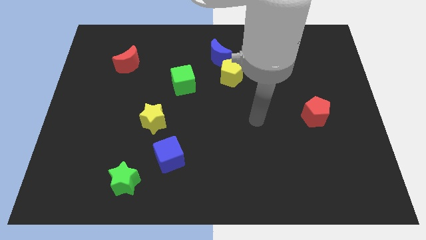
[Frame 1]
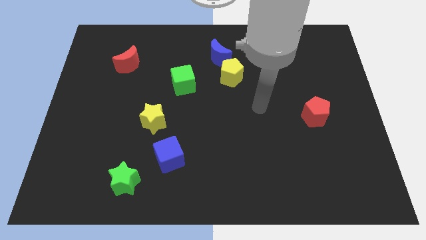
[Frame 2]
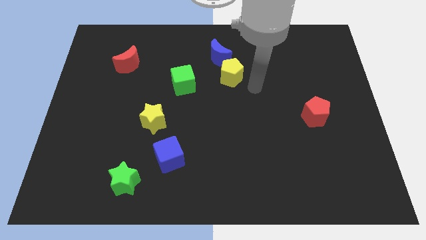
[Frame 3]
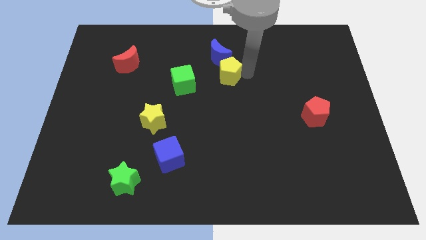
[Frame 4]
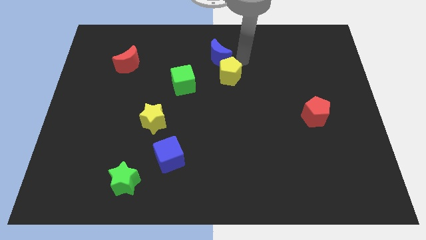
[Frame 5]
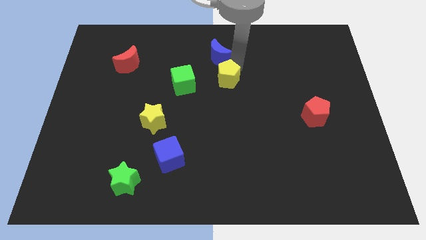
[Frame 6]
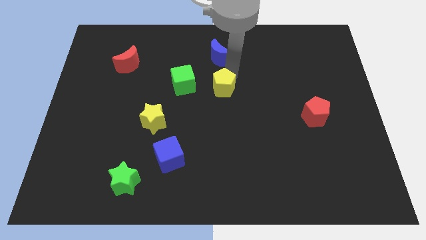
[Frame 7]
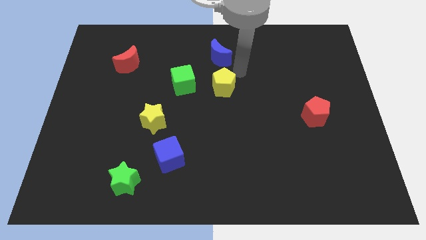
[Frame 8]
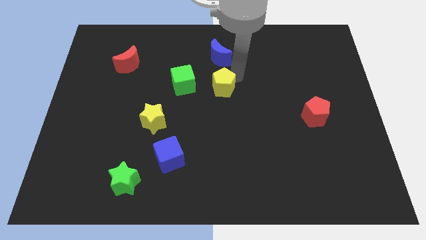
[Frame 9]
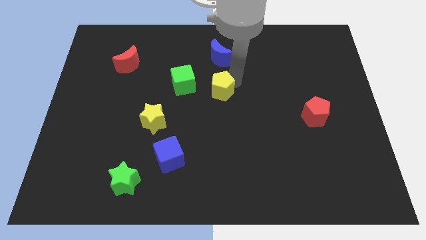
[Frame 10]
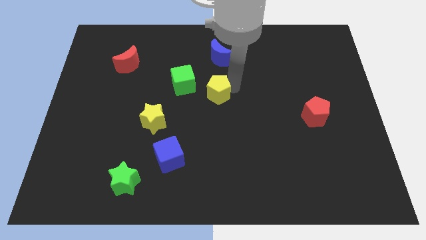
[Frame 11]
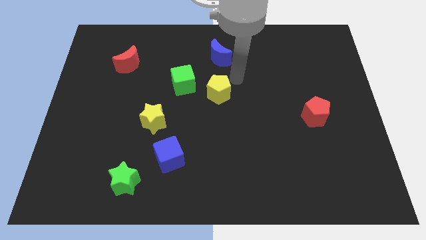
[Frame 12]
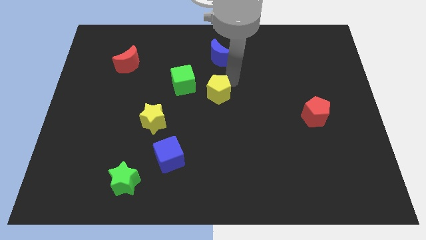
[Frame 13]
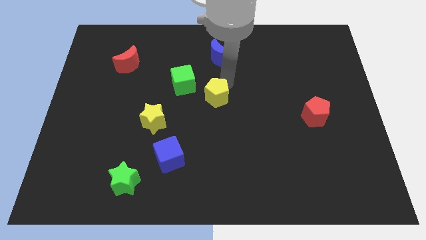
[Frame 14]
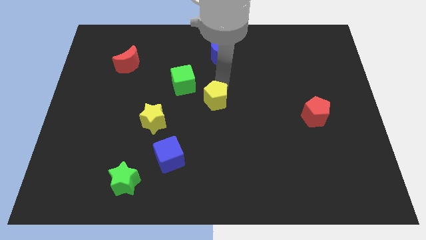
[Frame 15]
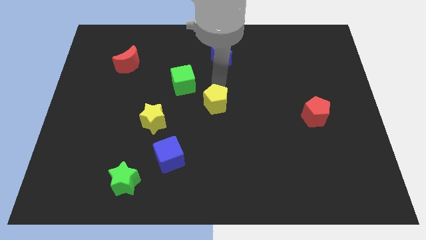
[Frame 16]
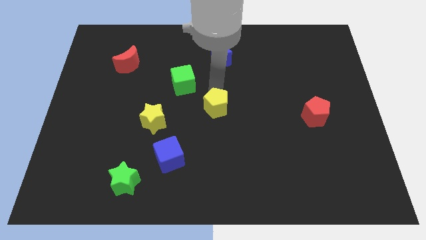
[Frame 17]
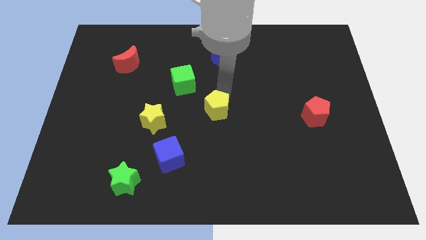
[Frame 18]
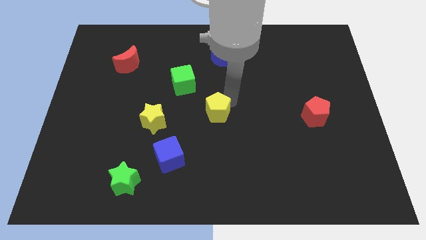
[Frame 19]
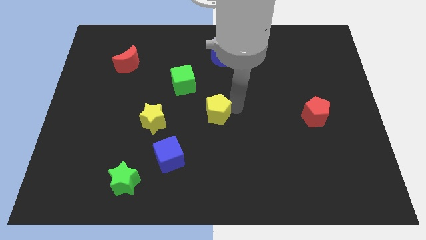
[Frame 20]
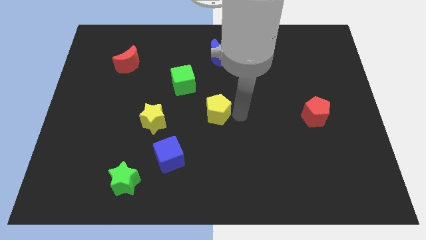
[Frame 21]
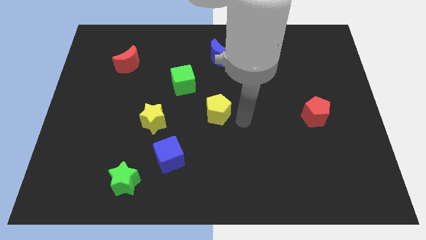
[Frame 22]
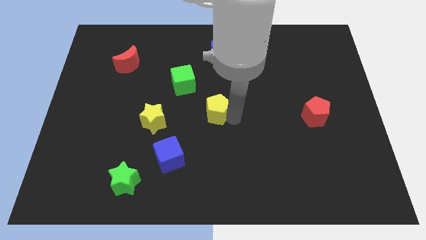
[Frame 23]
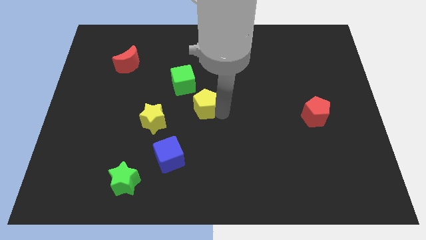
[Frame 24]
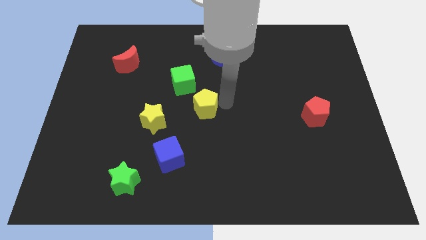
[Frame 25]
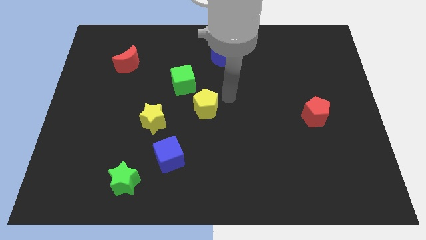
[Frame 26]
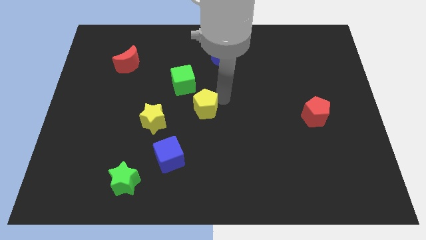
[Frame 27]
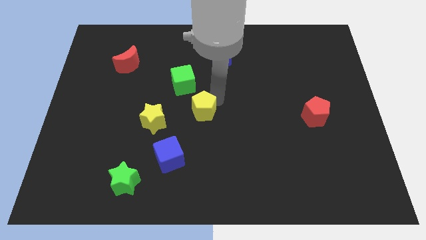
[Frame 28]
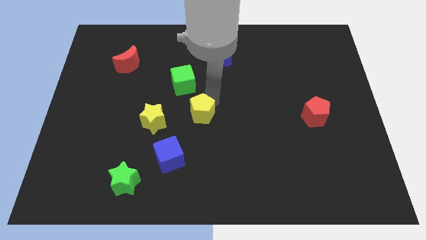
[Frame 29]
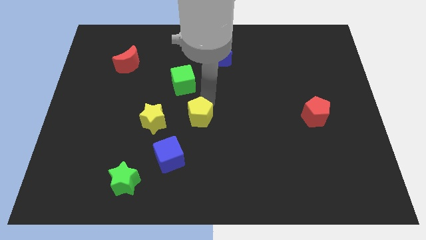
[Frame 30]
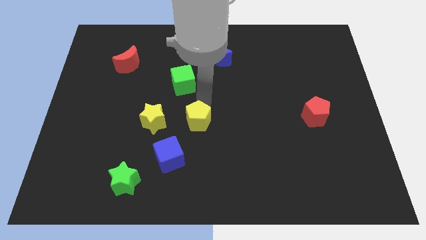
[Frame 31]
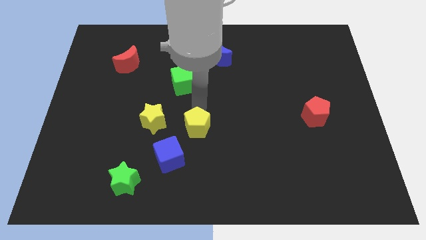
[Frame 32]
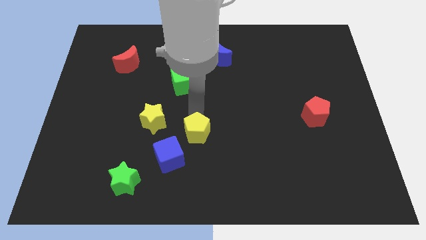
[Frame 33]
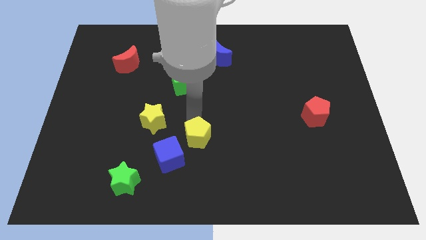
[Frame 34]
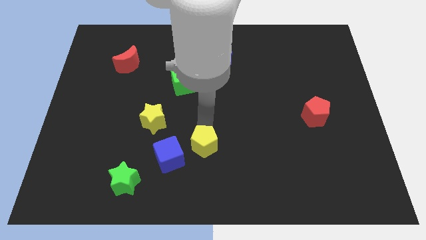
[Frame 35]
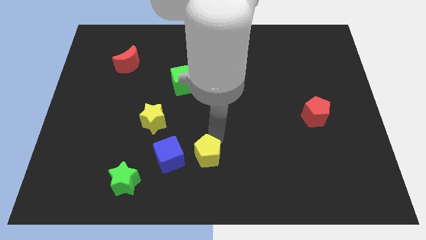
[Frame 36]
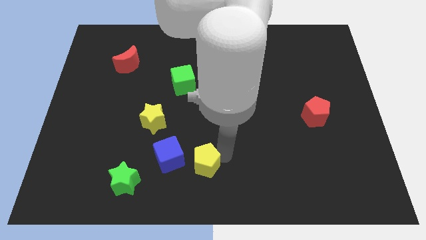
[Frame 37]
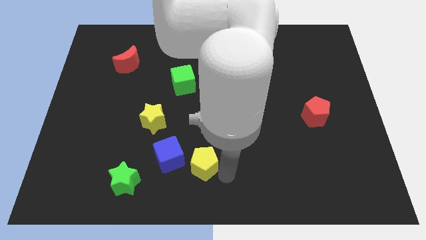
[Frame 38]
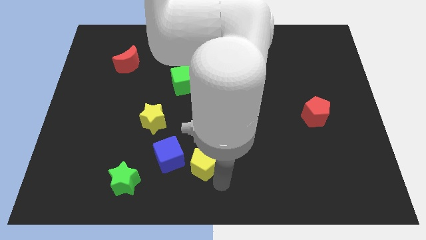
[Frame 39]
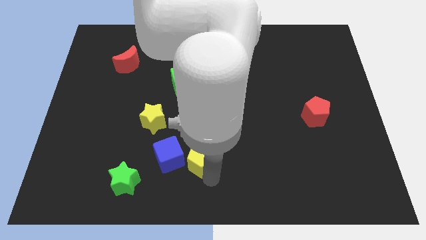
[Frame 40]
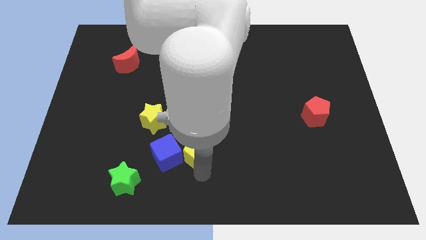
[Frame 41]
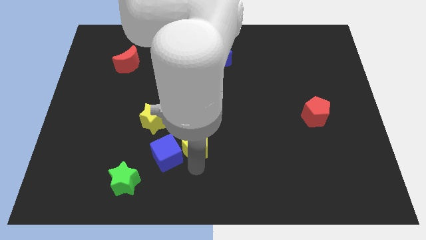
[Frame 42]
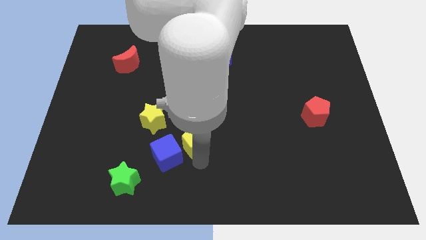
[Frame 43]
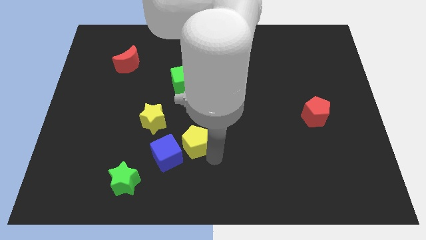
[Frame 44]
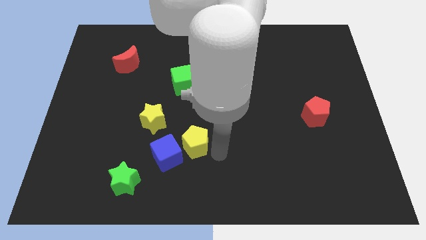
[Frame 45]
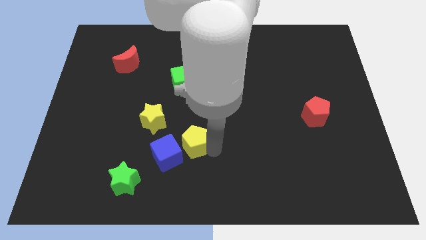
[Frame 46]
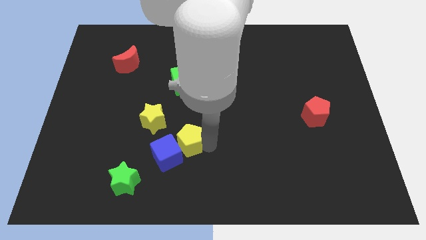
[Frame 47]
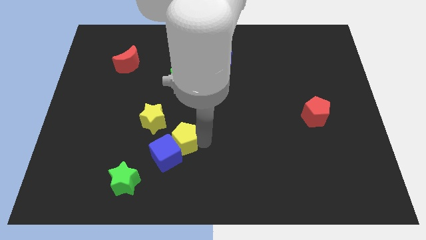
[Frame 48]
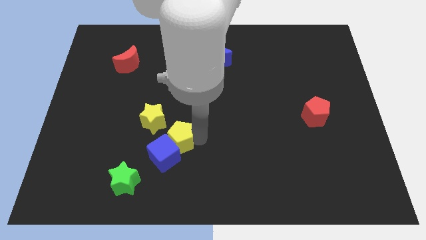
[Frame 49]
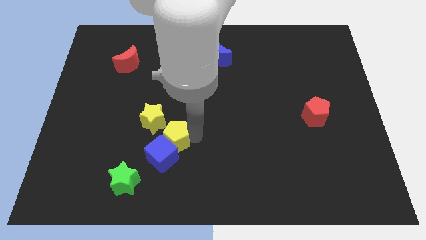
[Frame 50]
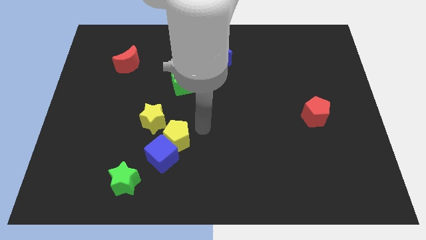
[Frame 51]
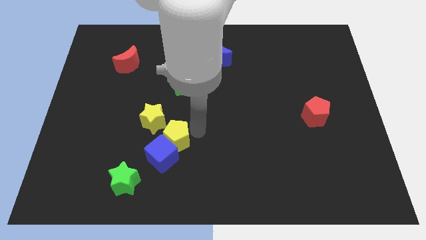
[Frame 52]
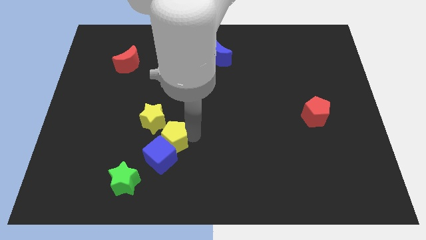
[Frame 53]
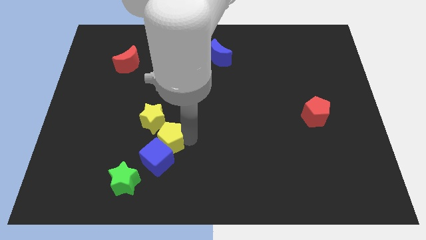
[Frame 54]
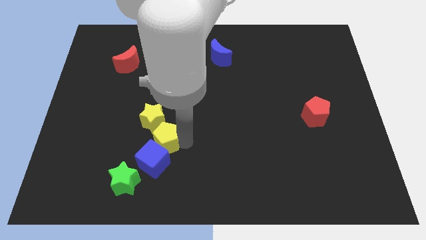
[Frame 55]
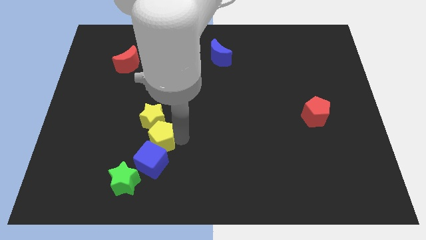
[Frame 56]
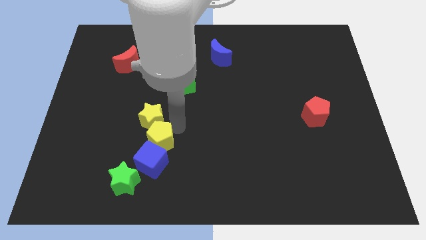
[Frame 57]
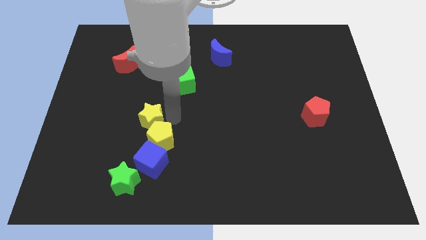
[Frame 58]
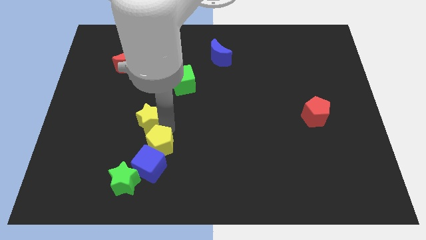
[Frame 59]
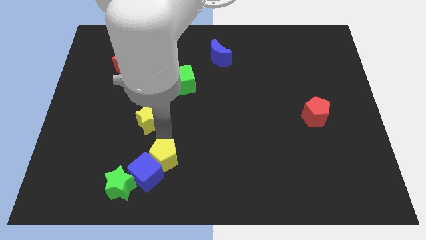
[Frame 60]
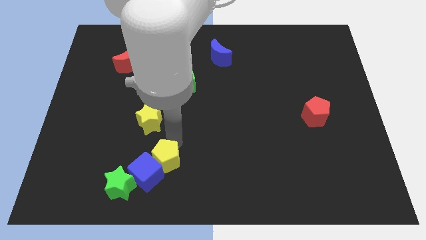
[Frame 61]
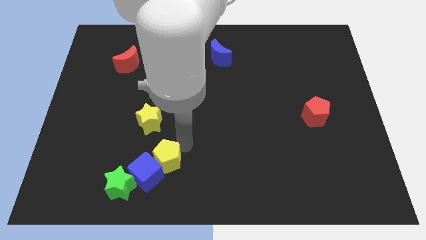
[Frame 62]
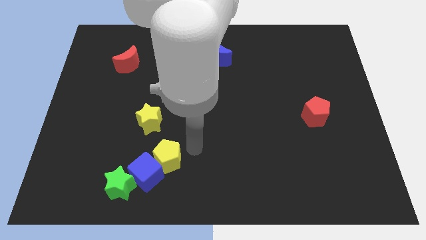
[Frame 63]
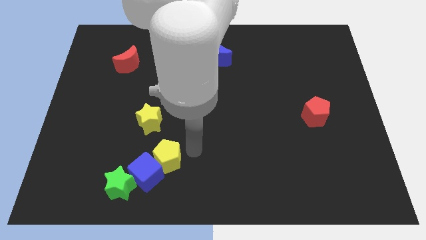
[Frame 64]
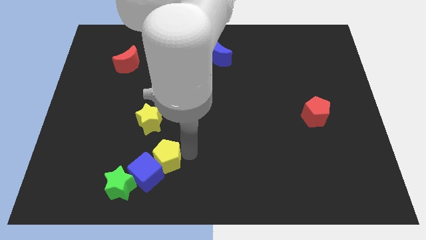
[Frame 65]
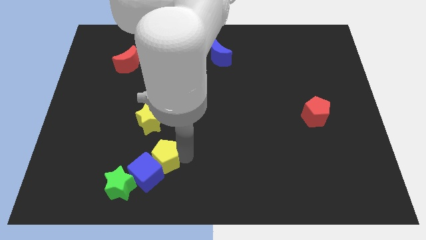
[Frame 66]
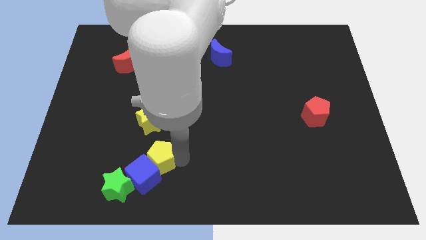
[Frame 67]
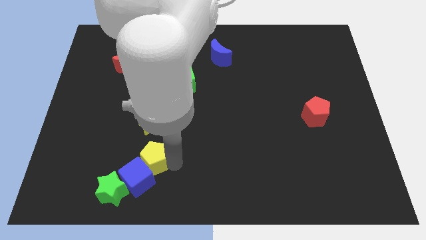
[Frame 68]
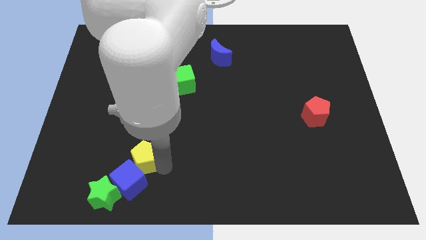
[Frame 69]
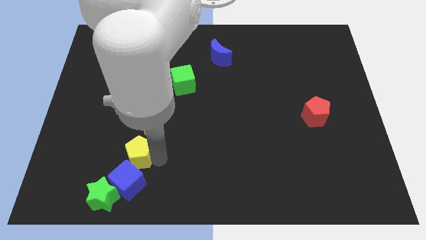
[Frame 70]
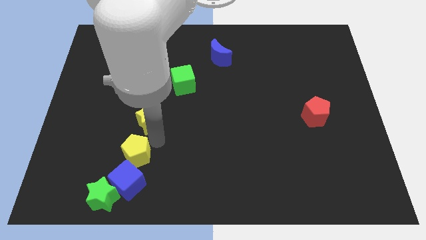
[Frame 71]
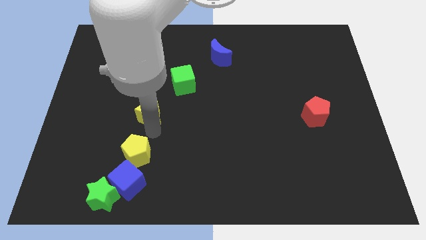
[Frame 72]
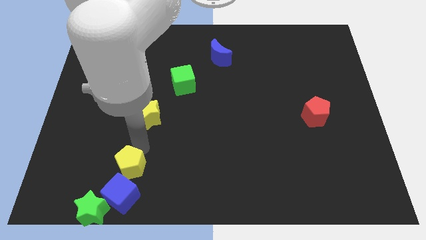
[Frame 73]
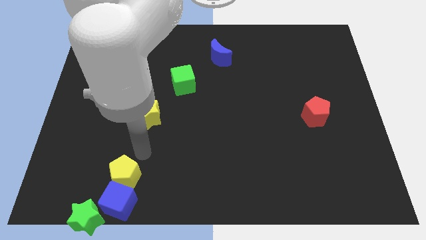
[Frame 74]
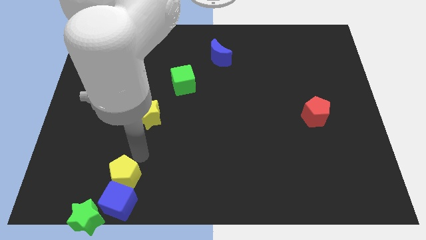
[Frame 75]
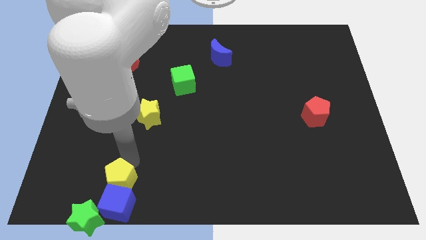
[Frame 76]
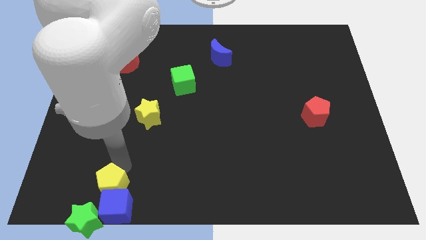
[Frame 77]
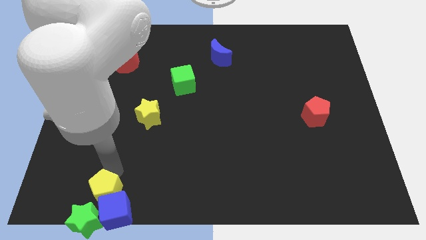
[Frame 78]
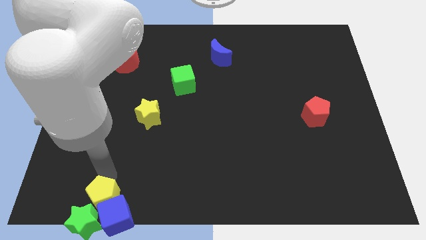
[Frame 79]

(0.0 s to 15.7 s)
put the yellow pentagon towards the green star
